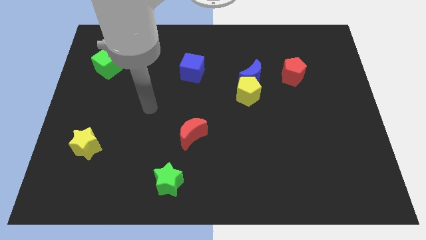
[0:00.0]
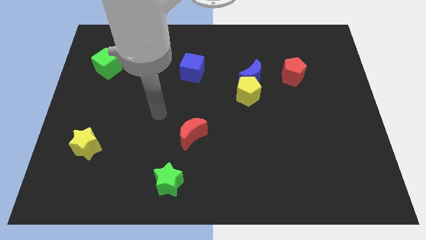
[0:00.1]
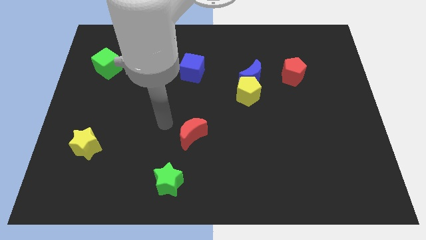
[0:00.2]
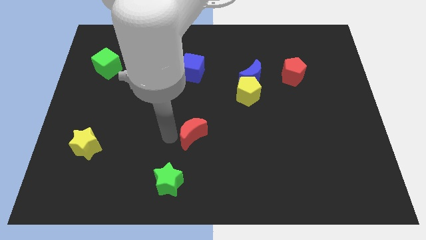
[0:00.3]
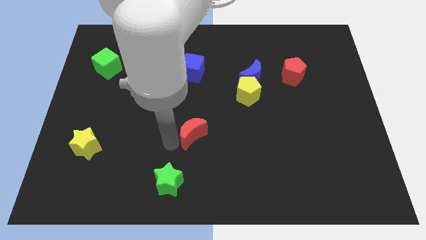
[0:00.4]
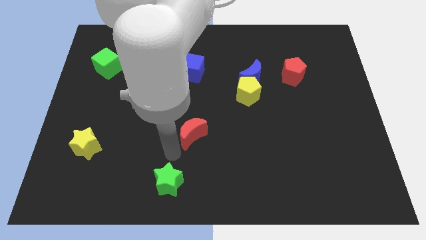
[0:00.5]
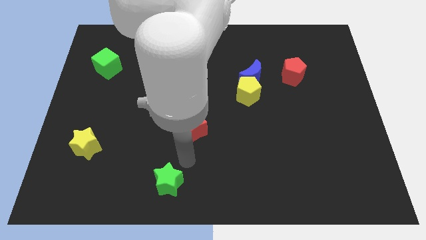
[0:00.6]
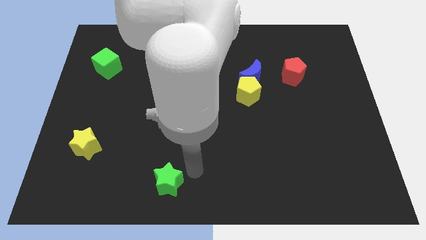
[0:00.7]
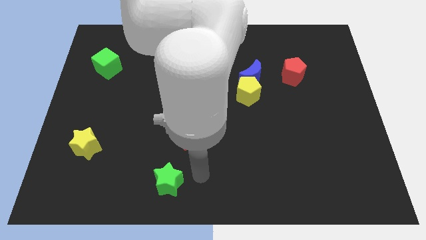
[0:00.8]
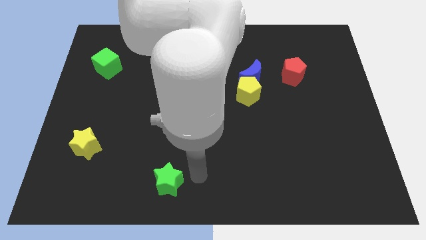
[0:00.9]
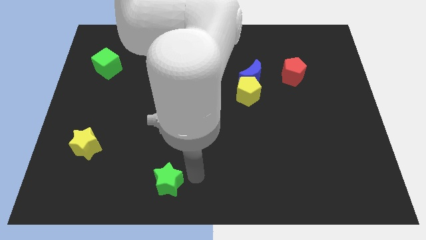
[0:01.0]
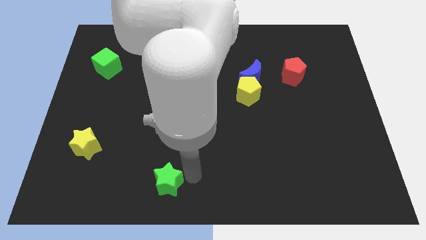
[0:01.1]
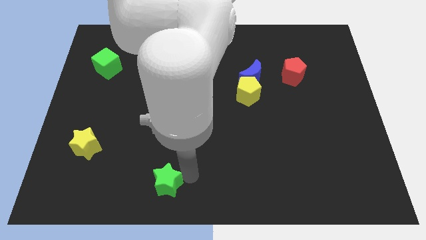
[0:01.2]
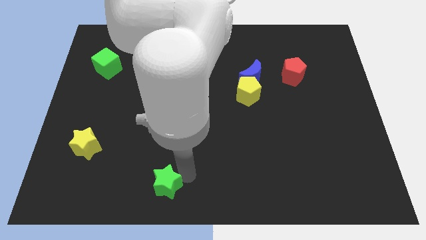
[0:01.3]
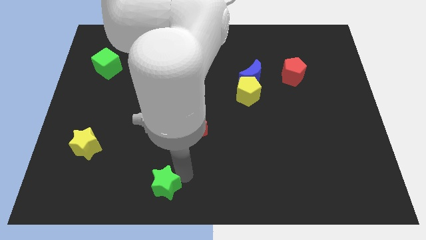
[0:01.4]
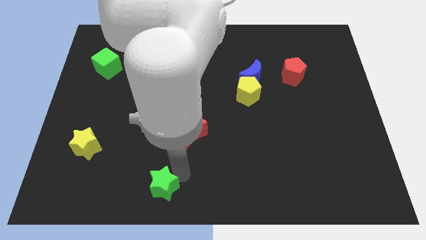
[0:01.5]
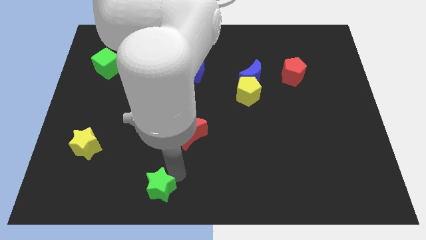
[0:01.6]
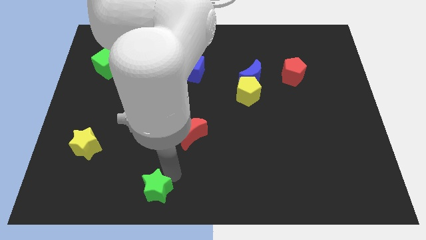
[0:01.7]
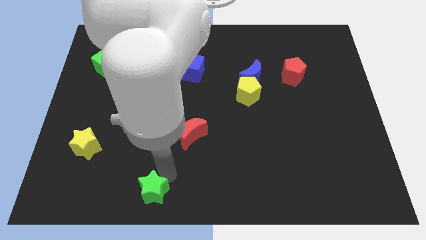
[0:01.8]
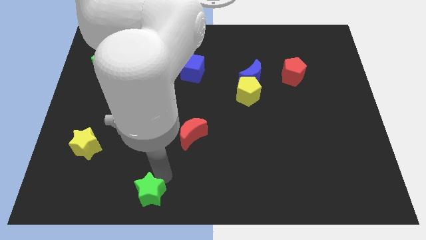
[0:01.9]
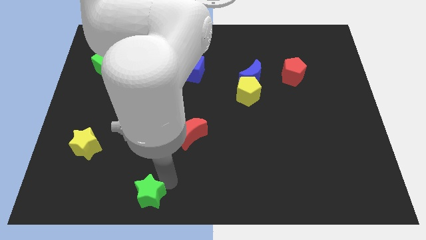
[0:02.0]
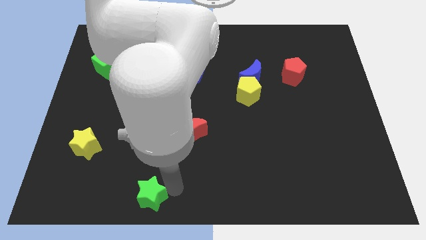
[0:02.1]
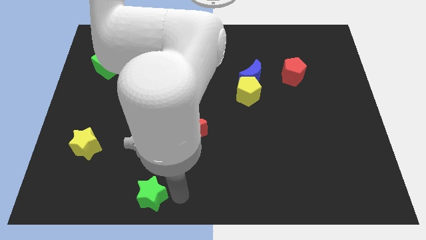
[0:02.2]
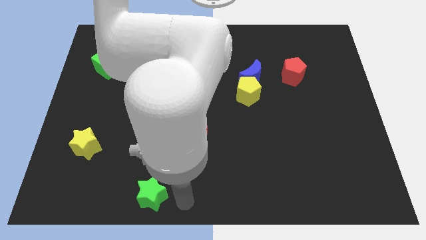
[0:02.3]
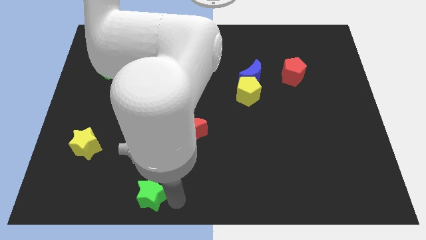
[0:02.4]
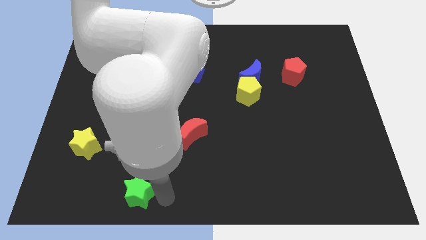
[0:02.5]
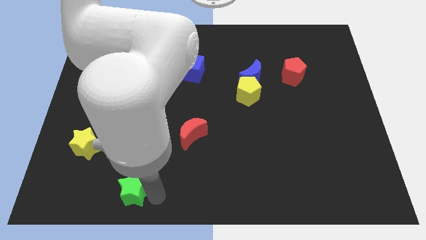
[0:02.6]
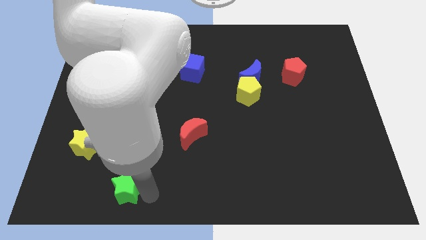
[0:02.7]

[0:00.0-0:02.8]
slightly move the green star left

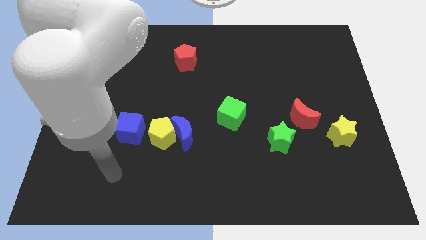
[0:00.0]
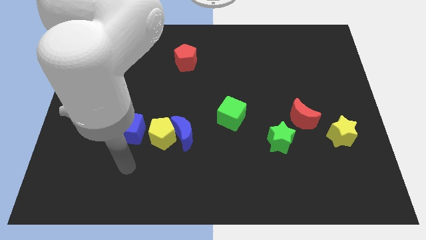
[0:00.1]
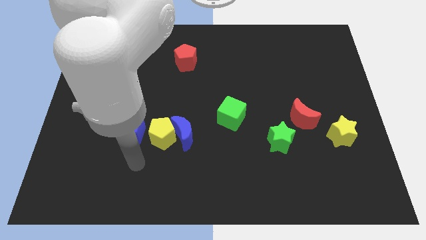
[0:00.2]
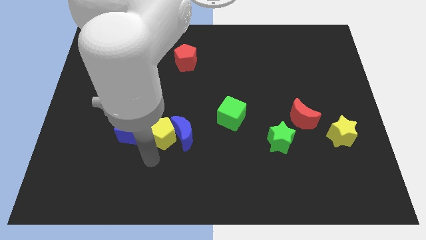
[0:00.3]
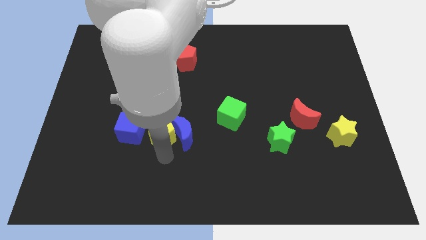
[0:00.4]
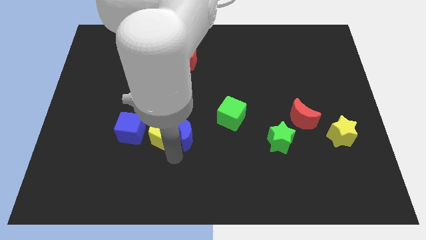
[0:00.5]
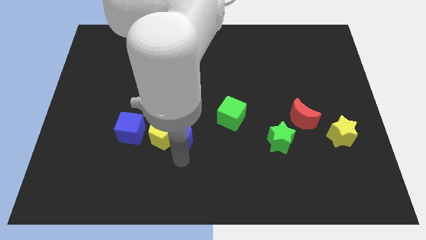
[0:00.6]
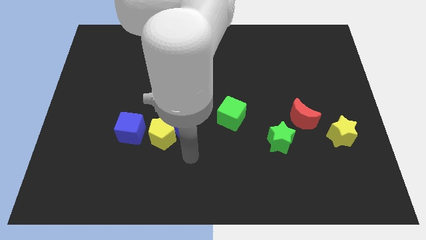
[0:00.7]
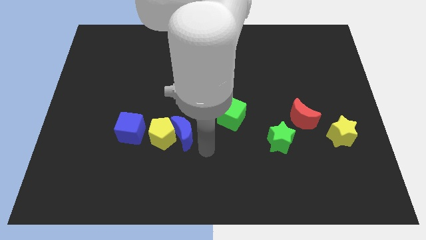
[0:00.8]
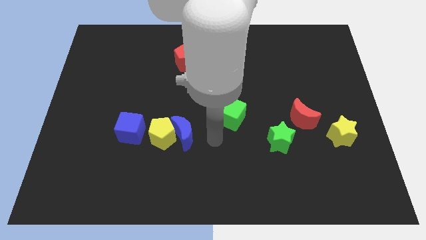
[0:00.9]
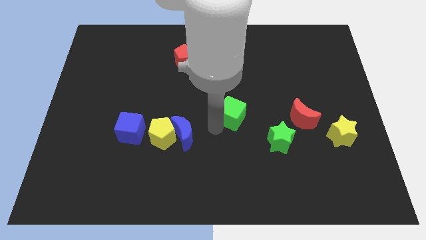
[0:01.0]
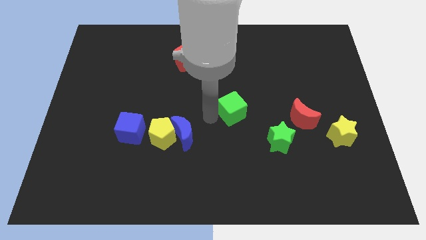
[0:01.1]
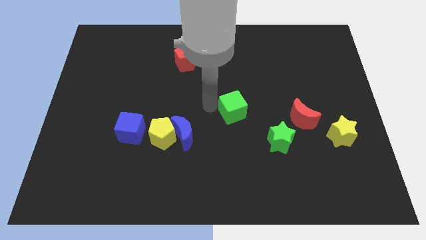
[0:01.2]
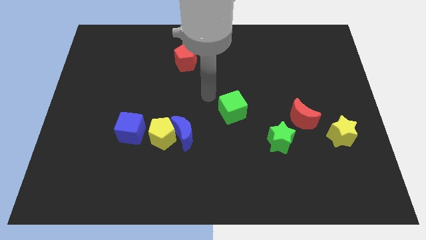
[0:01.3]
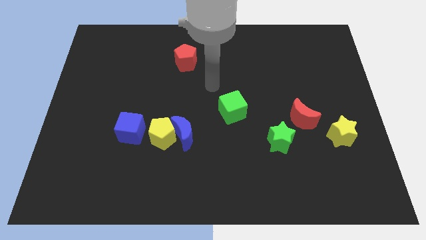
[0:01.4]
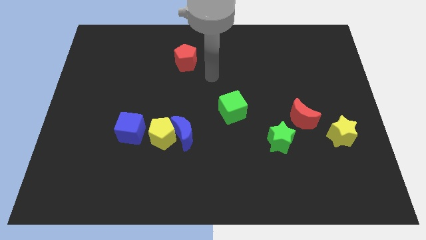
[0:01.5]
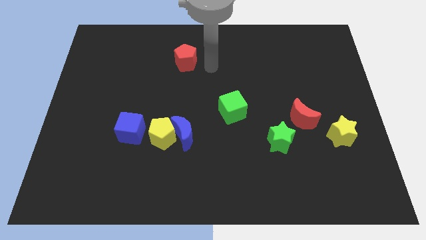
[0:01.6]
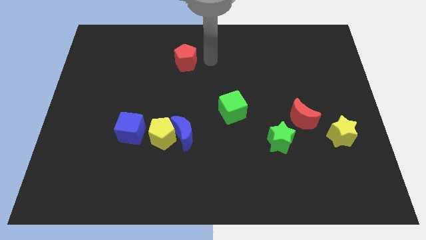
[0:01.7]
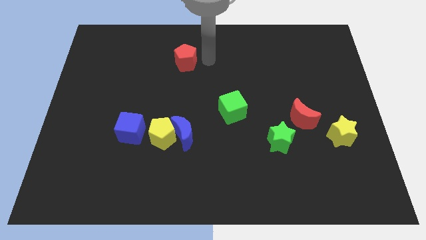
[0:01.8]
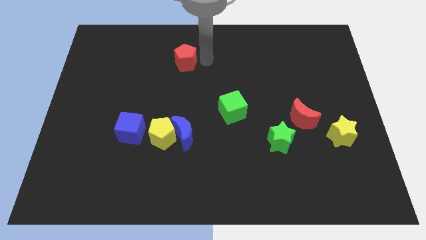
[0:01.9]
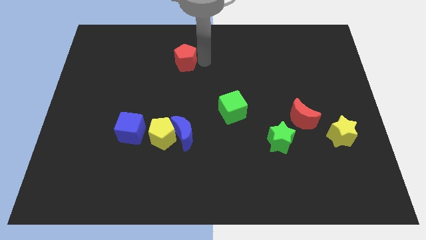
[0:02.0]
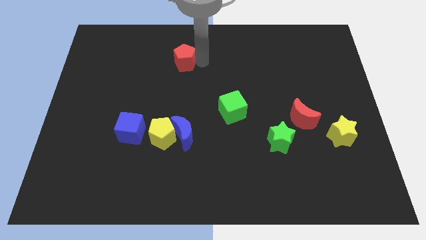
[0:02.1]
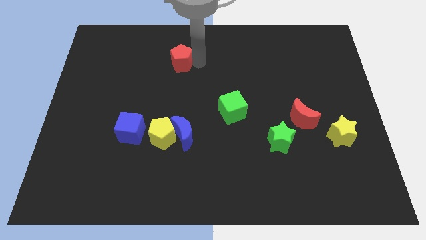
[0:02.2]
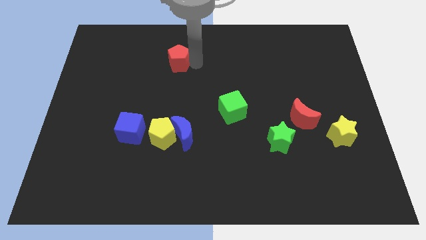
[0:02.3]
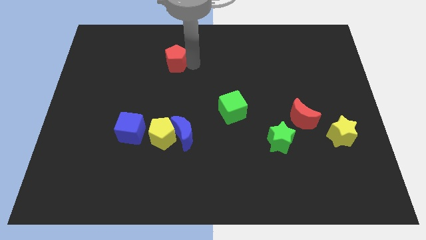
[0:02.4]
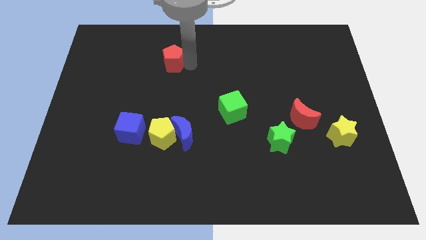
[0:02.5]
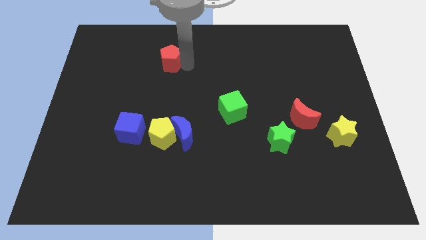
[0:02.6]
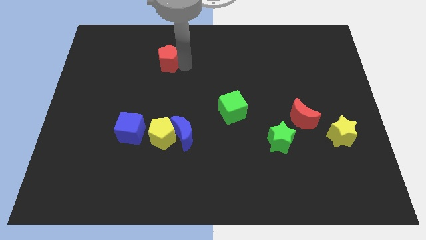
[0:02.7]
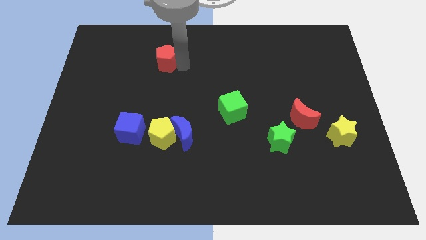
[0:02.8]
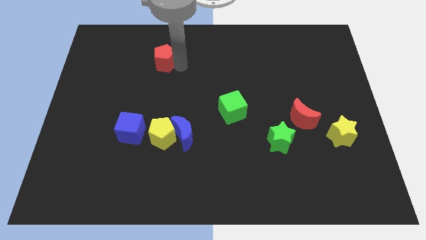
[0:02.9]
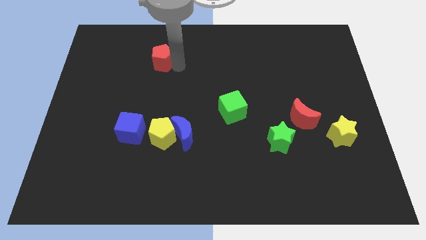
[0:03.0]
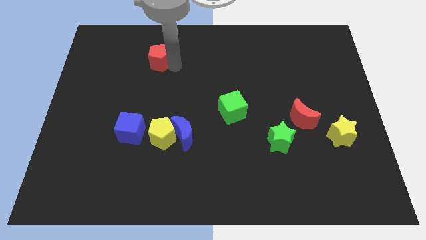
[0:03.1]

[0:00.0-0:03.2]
slightly move the red pentagon to the left

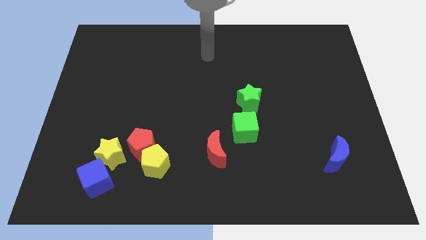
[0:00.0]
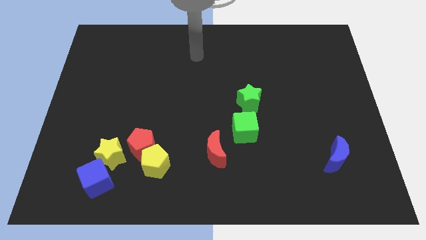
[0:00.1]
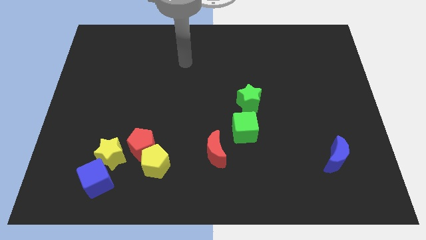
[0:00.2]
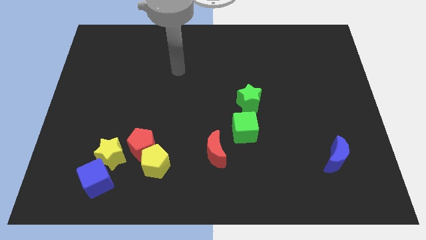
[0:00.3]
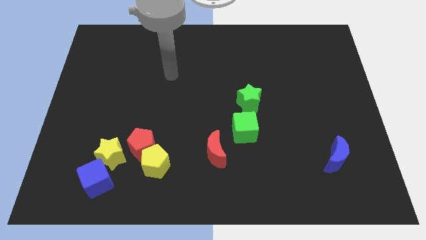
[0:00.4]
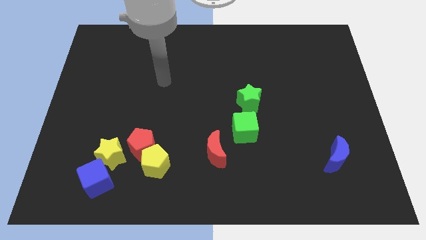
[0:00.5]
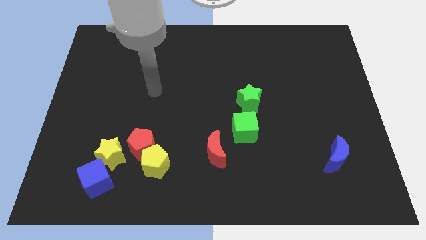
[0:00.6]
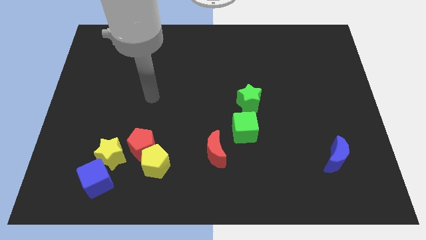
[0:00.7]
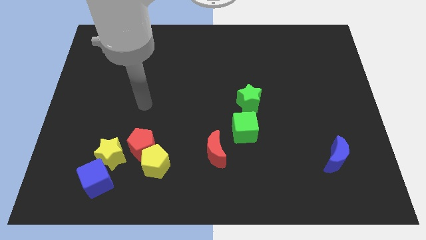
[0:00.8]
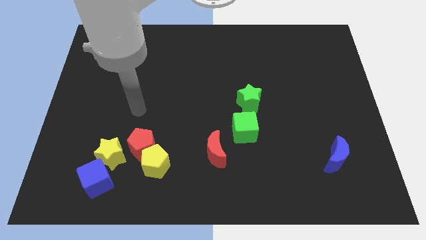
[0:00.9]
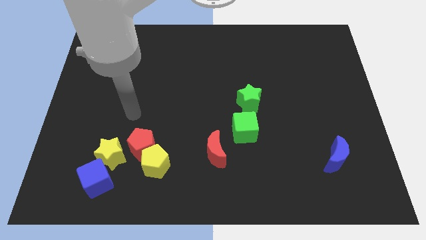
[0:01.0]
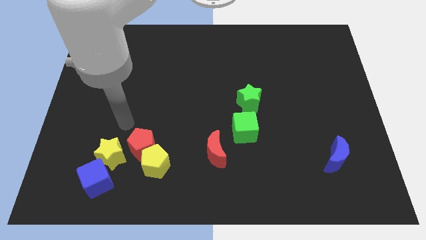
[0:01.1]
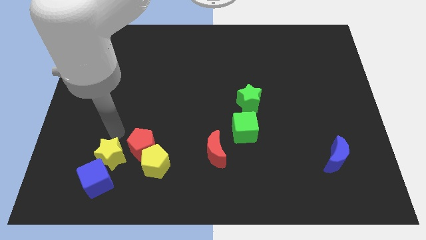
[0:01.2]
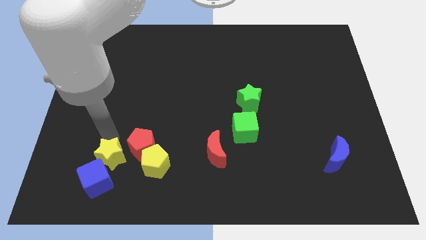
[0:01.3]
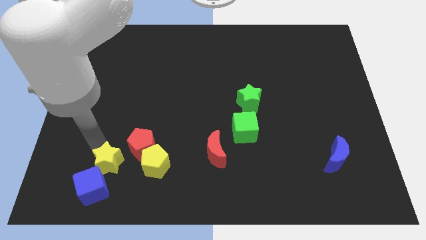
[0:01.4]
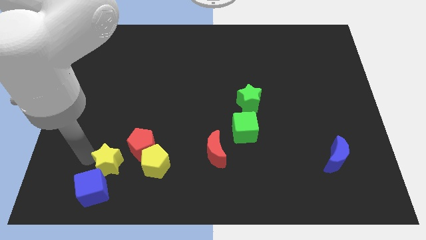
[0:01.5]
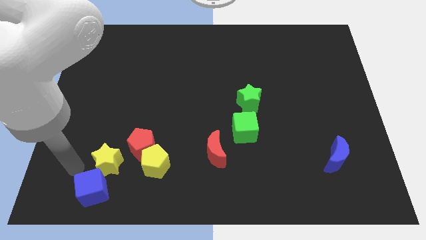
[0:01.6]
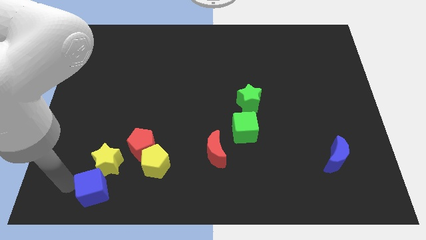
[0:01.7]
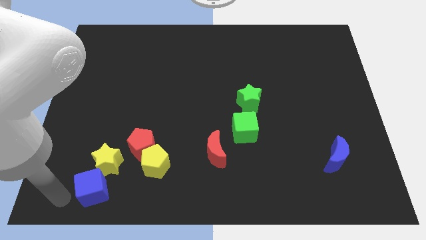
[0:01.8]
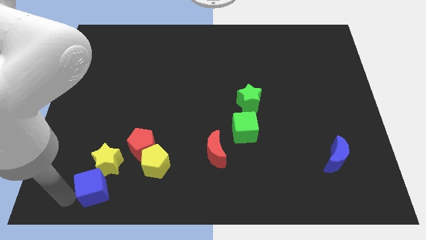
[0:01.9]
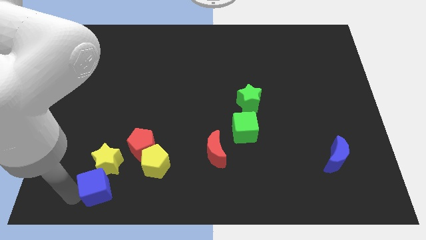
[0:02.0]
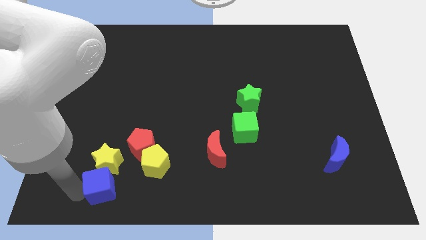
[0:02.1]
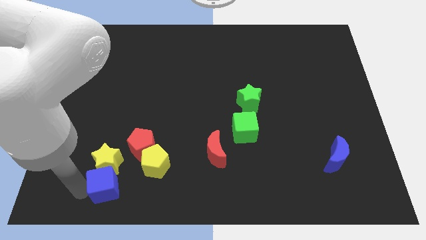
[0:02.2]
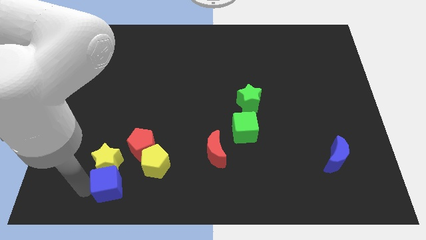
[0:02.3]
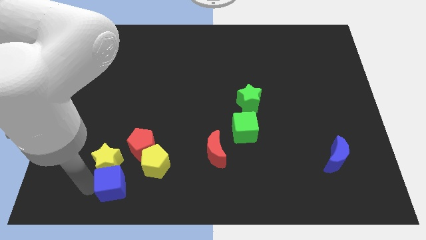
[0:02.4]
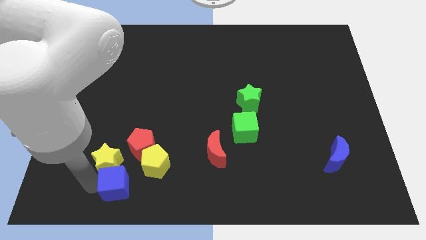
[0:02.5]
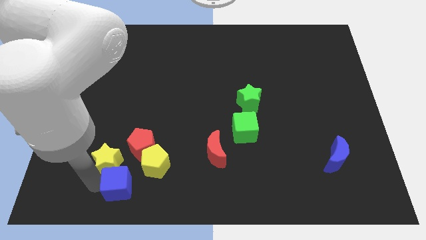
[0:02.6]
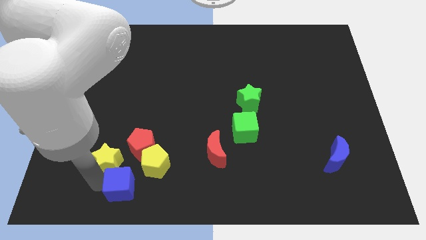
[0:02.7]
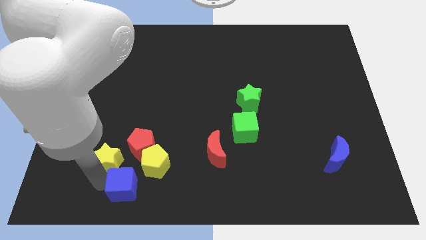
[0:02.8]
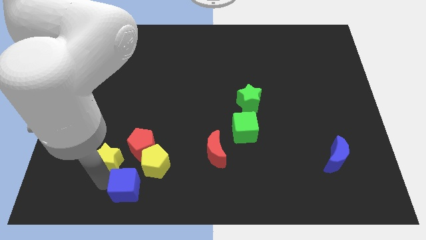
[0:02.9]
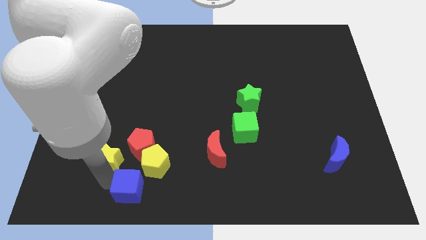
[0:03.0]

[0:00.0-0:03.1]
move the blue cube to the right slightly
